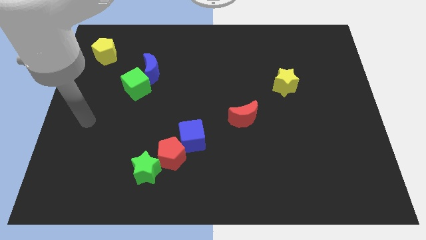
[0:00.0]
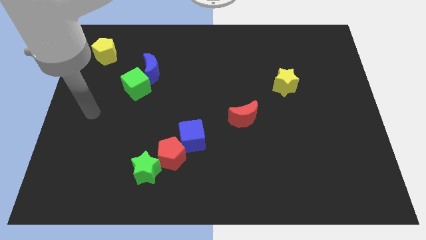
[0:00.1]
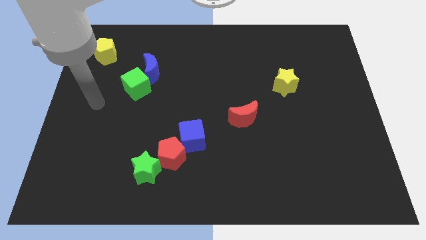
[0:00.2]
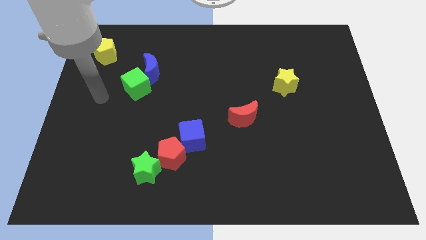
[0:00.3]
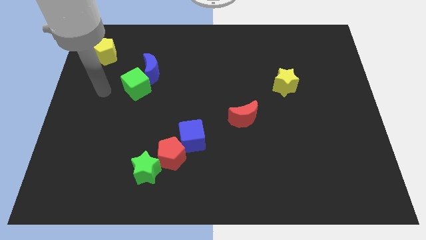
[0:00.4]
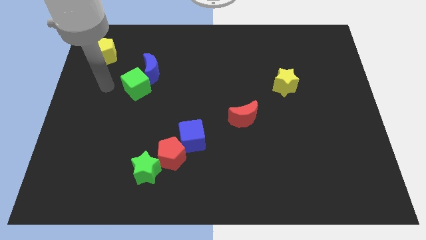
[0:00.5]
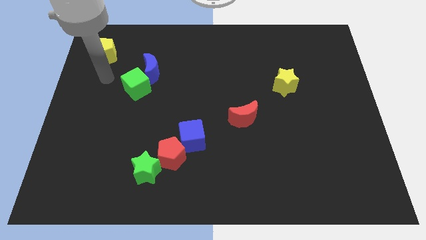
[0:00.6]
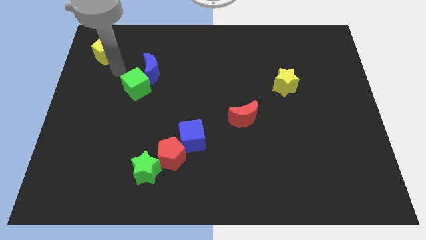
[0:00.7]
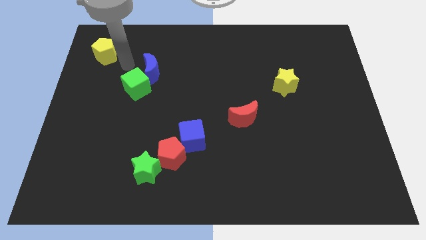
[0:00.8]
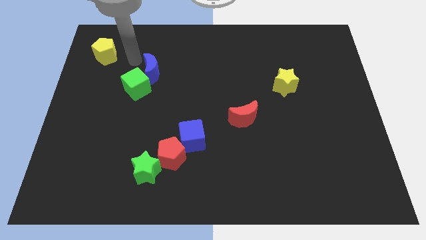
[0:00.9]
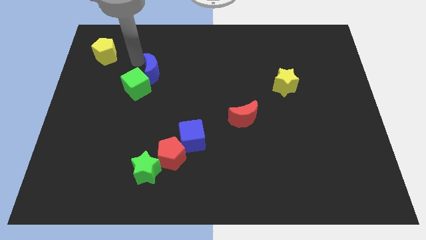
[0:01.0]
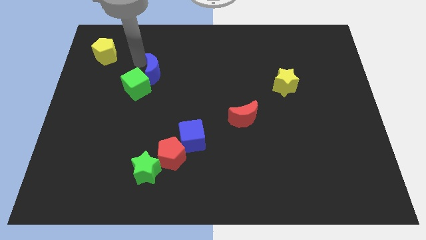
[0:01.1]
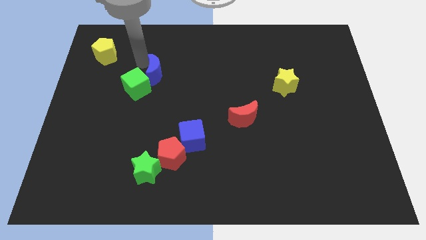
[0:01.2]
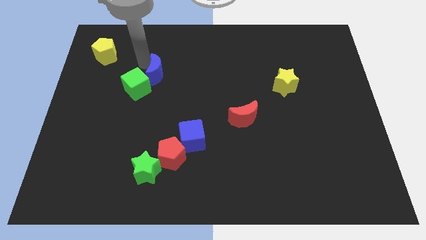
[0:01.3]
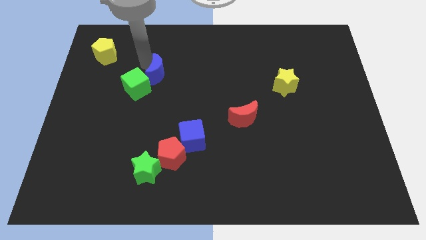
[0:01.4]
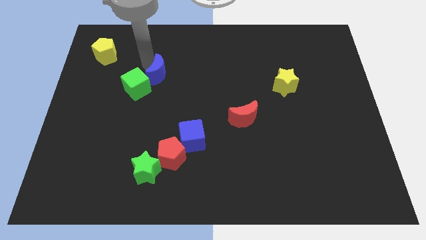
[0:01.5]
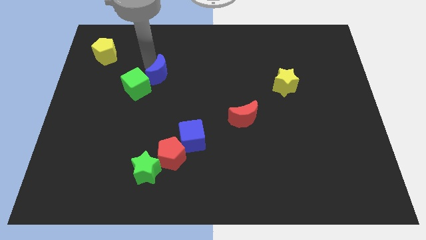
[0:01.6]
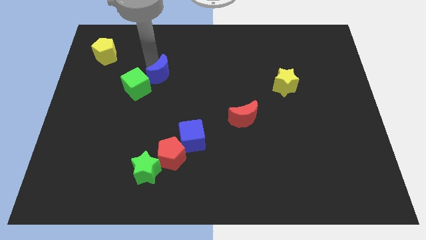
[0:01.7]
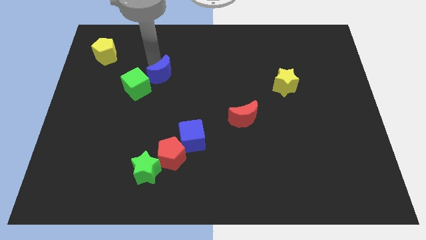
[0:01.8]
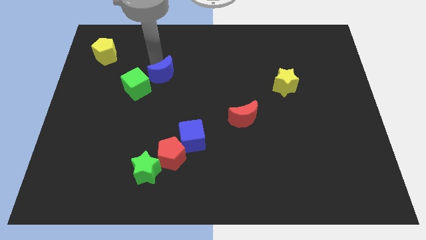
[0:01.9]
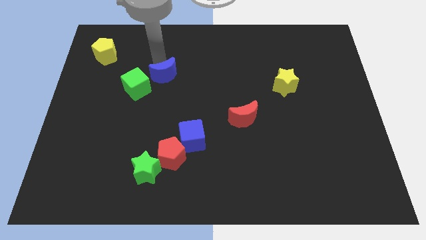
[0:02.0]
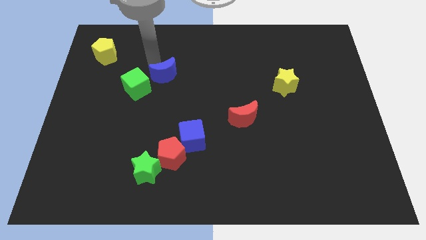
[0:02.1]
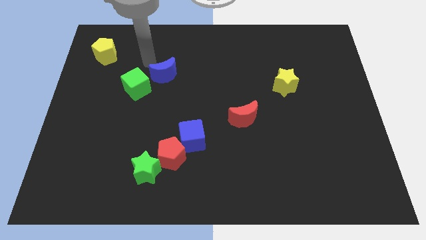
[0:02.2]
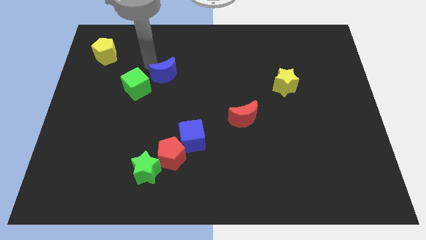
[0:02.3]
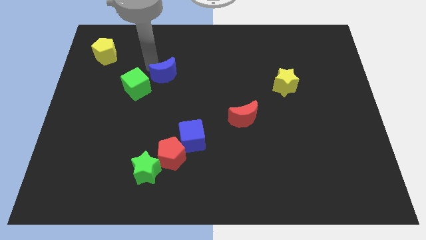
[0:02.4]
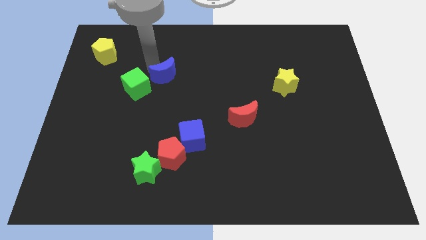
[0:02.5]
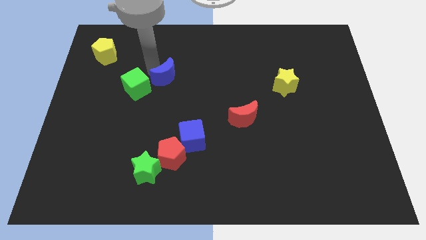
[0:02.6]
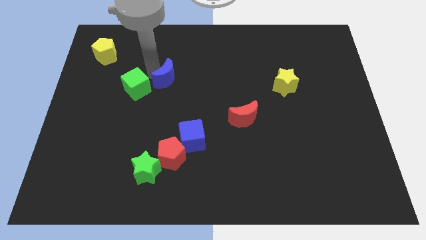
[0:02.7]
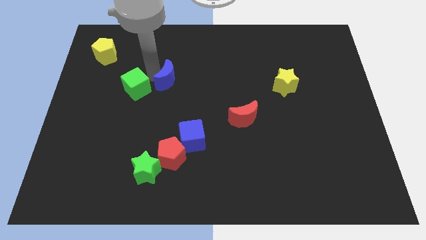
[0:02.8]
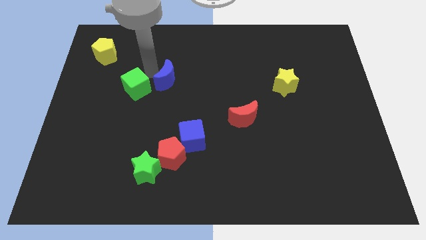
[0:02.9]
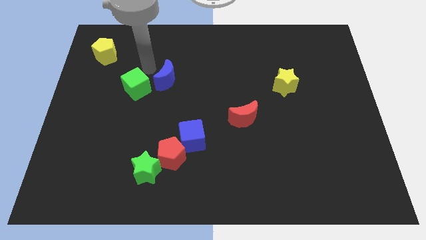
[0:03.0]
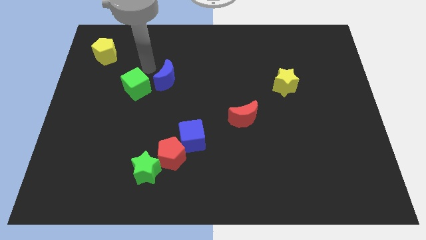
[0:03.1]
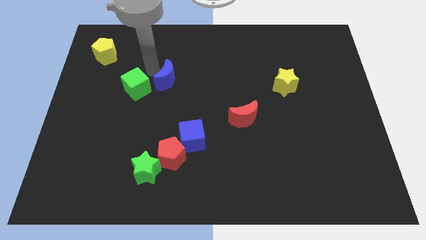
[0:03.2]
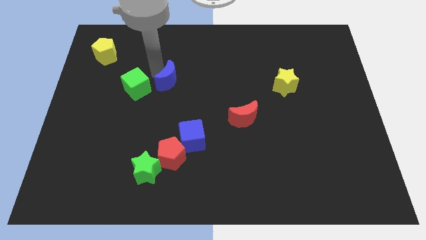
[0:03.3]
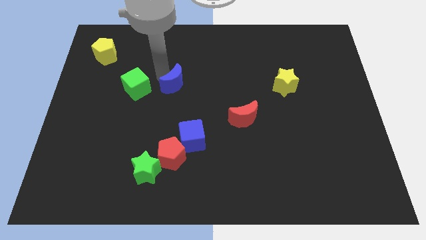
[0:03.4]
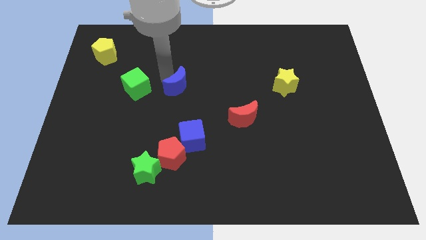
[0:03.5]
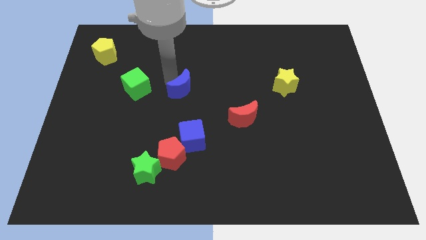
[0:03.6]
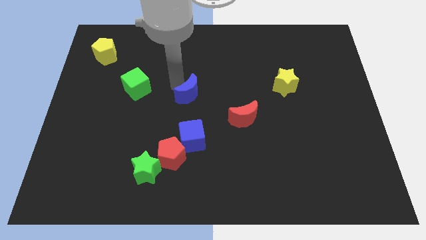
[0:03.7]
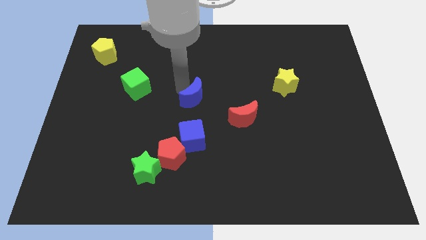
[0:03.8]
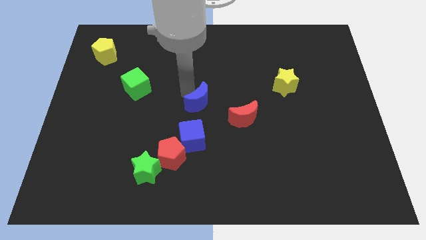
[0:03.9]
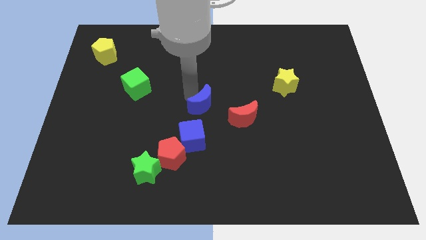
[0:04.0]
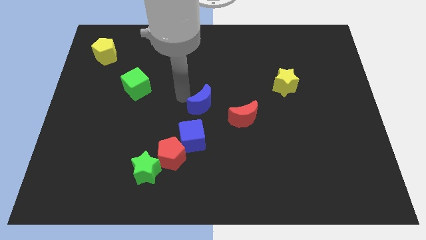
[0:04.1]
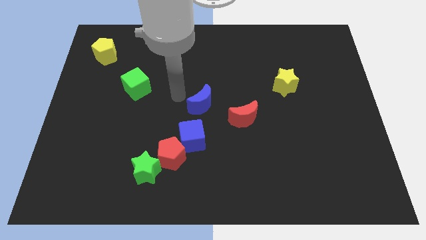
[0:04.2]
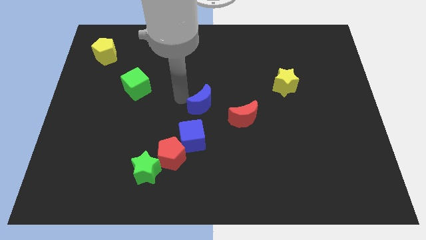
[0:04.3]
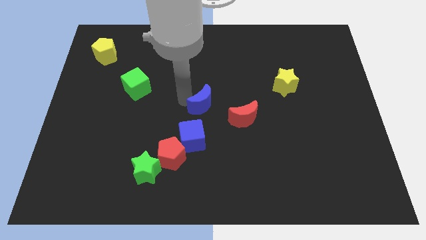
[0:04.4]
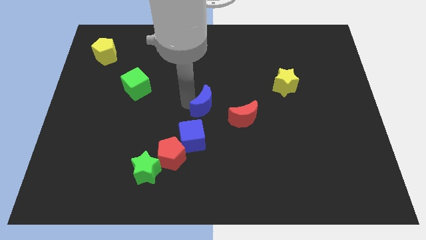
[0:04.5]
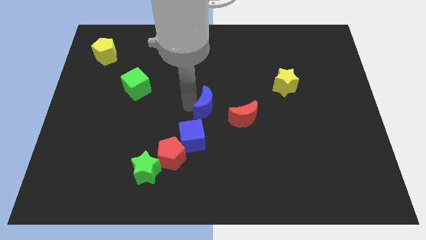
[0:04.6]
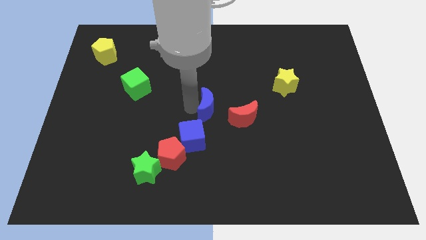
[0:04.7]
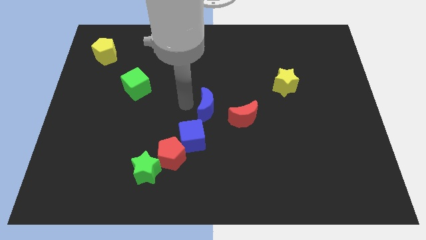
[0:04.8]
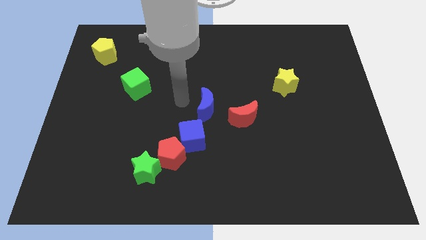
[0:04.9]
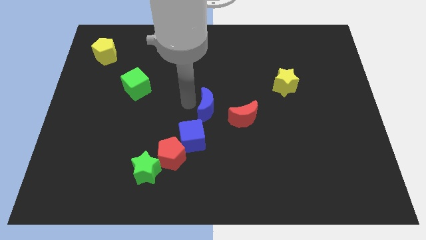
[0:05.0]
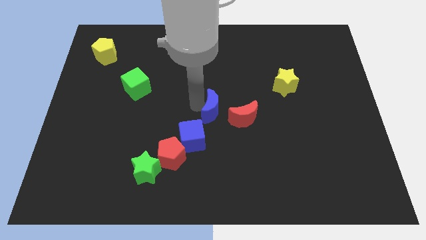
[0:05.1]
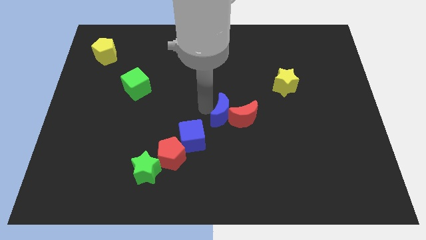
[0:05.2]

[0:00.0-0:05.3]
push the blue moon to the red moon

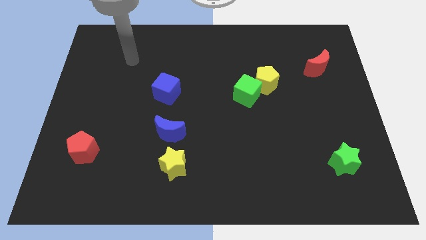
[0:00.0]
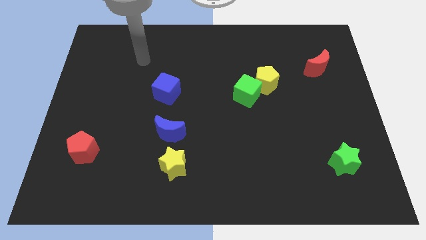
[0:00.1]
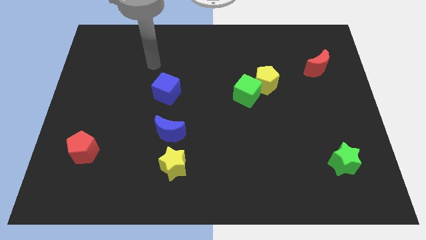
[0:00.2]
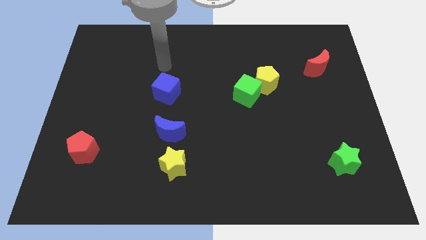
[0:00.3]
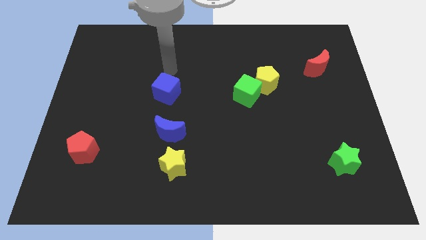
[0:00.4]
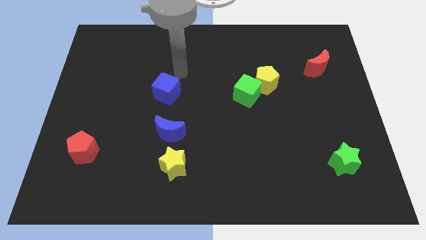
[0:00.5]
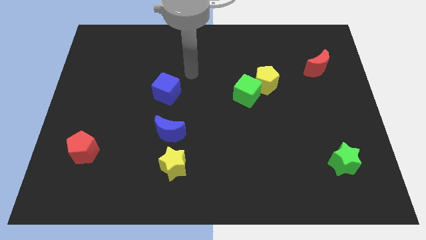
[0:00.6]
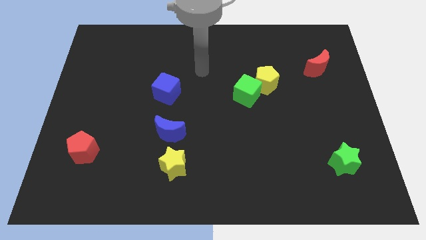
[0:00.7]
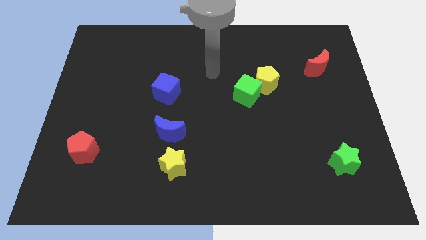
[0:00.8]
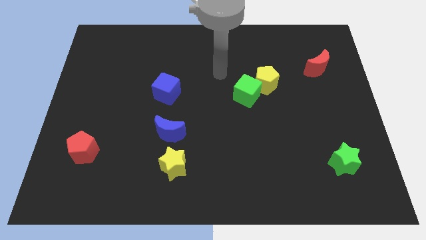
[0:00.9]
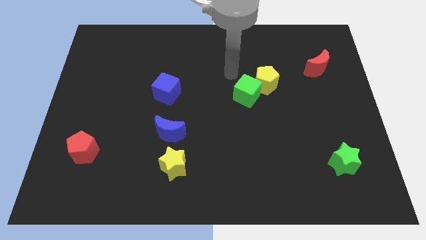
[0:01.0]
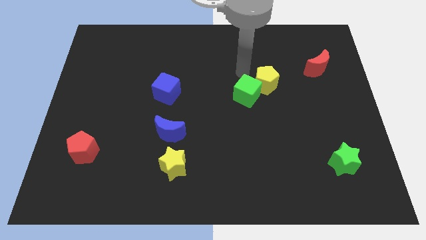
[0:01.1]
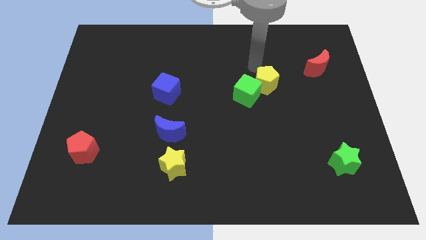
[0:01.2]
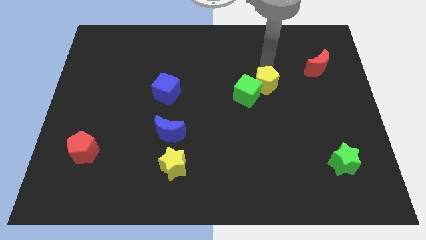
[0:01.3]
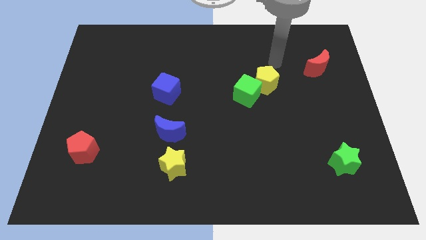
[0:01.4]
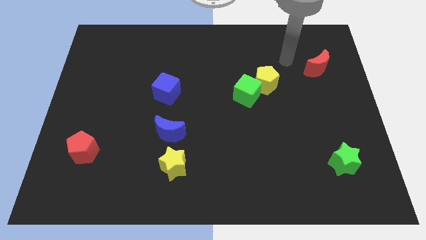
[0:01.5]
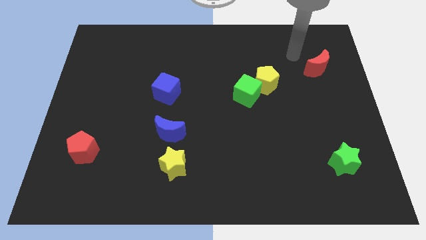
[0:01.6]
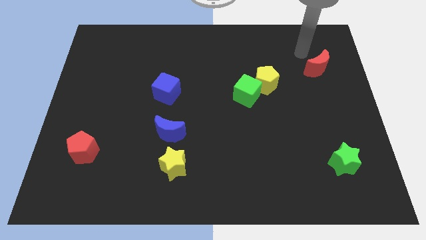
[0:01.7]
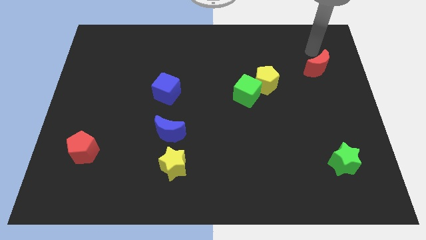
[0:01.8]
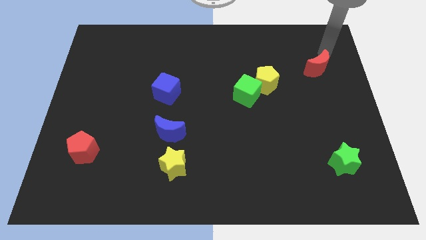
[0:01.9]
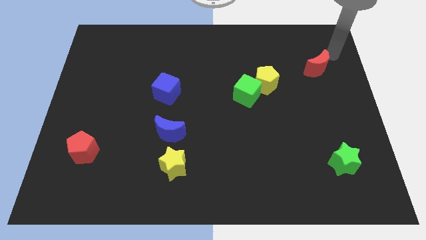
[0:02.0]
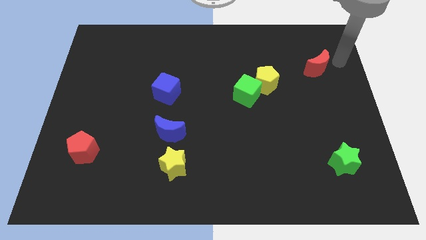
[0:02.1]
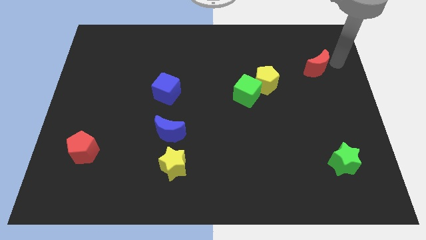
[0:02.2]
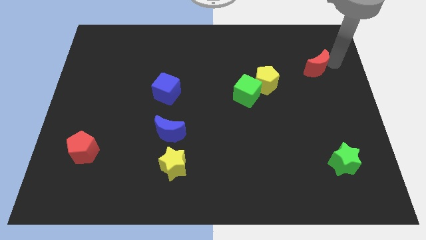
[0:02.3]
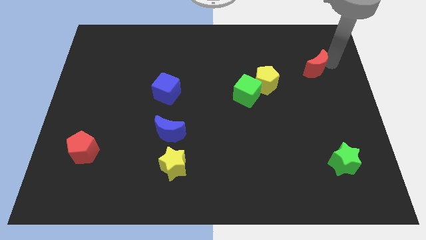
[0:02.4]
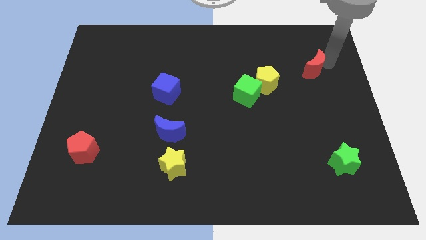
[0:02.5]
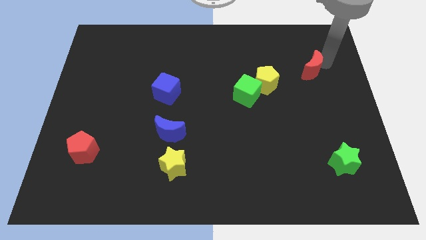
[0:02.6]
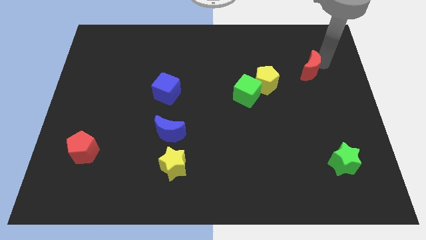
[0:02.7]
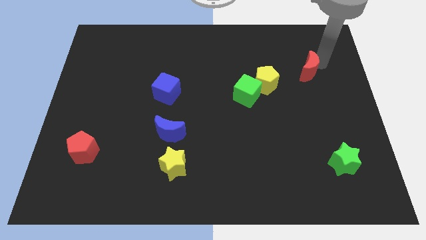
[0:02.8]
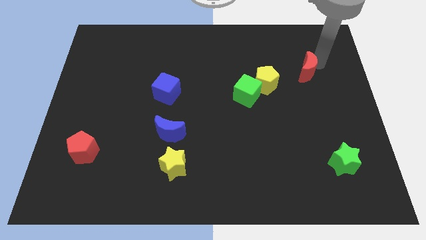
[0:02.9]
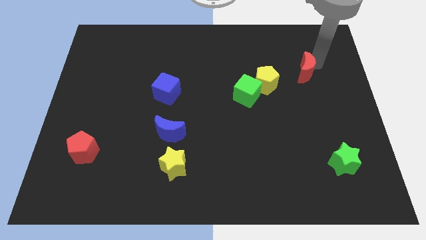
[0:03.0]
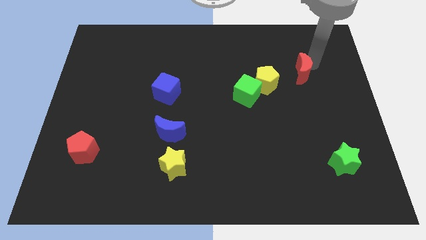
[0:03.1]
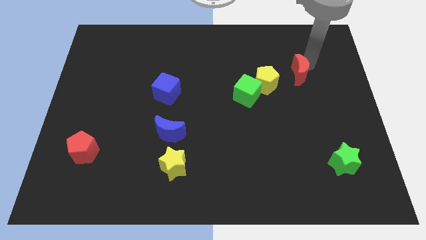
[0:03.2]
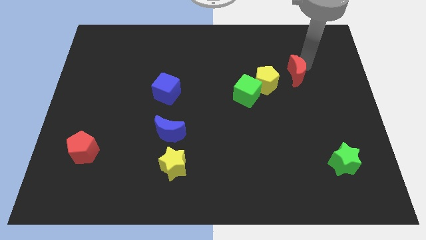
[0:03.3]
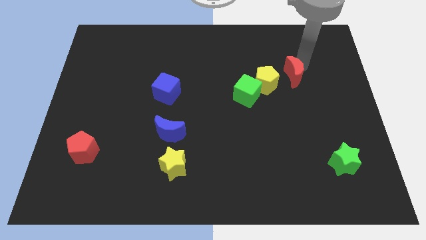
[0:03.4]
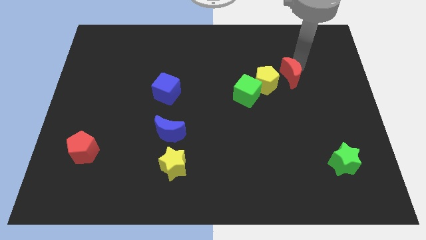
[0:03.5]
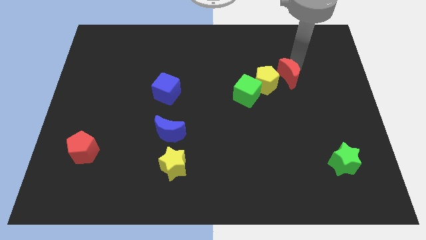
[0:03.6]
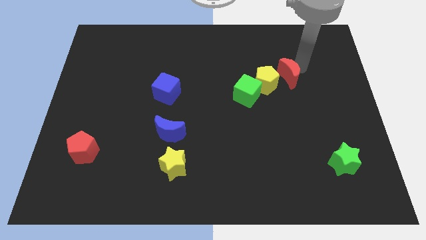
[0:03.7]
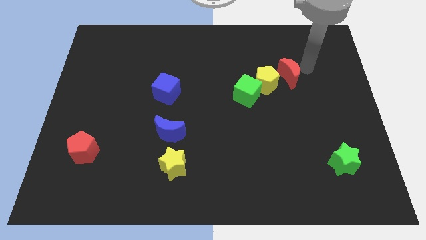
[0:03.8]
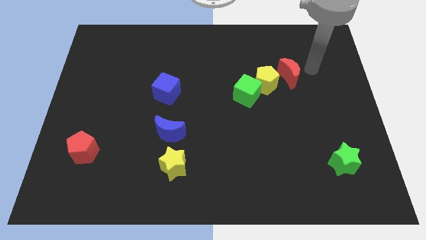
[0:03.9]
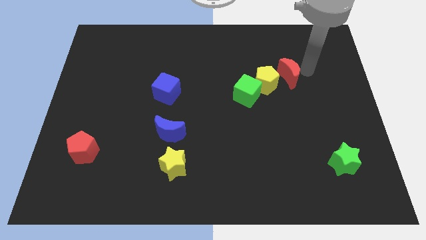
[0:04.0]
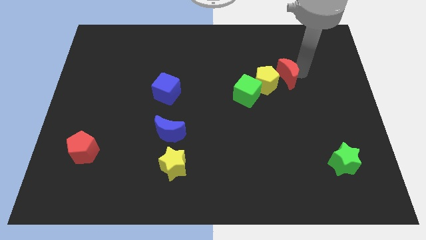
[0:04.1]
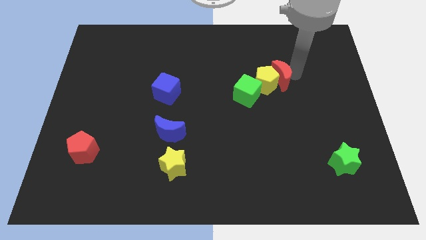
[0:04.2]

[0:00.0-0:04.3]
slide the red moon next to the yellow pentagon
